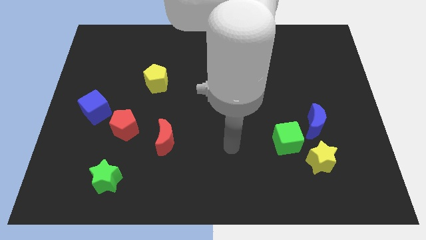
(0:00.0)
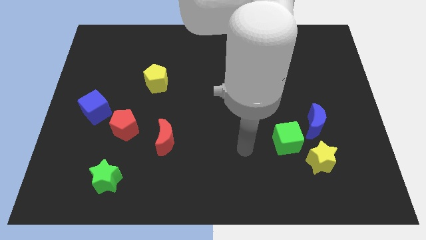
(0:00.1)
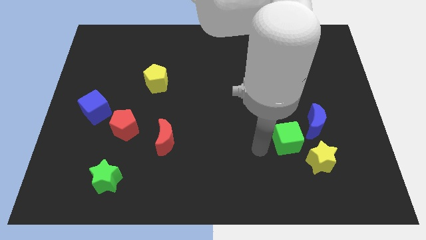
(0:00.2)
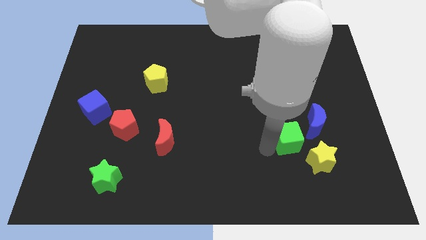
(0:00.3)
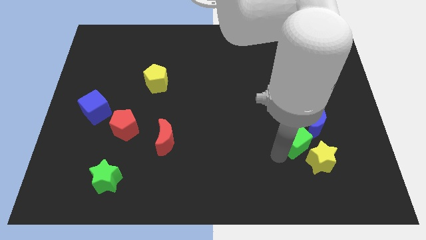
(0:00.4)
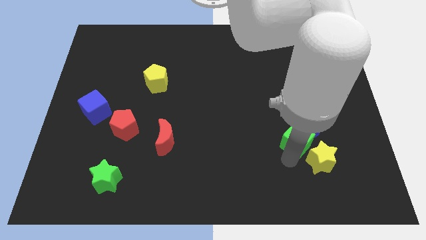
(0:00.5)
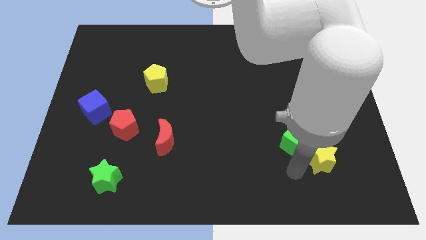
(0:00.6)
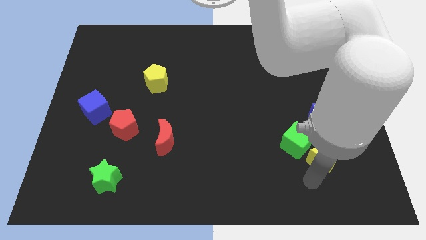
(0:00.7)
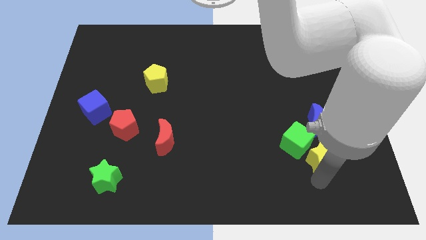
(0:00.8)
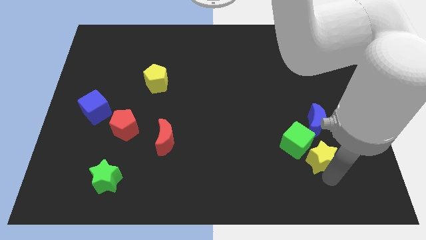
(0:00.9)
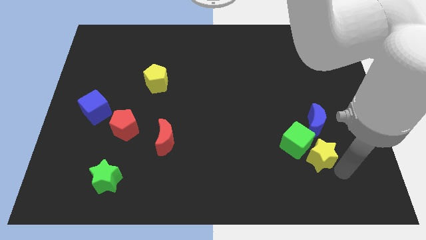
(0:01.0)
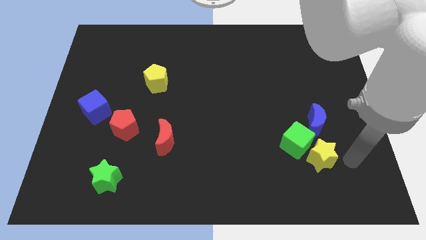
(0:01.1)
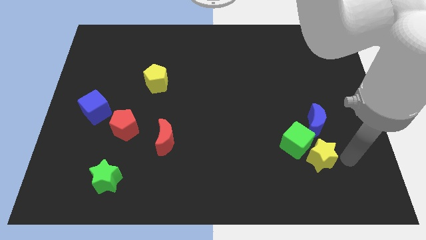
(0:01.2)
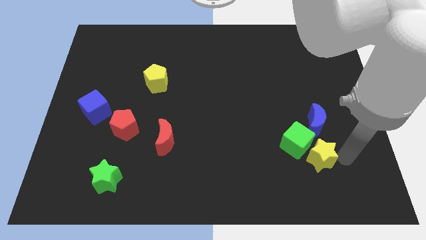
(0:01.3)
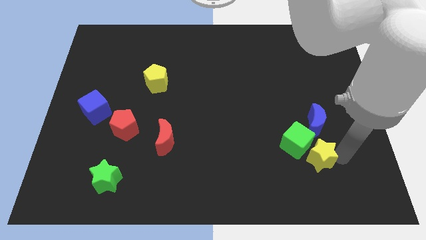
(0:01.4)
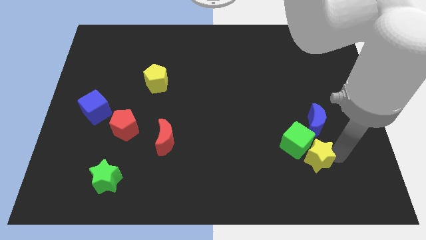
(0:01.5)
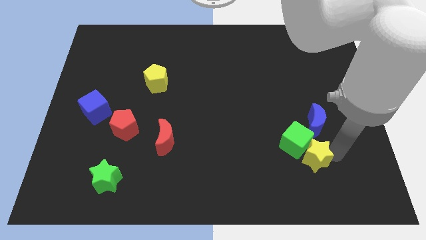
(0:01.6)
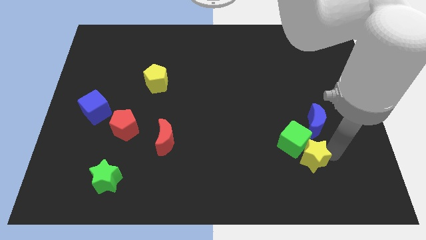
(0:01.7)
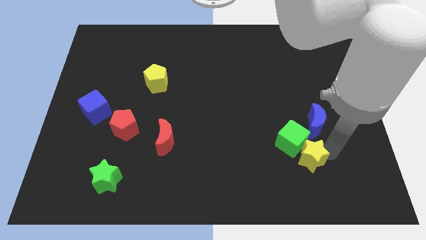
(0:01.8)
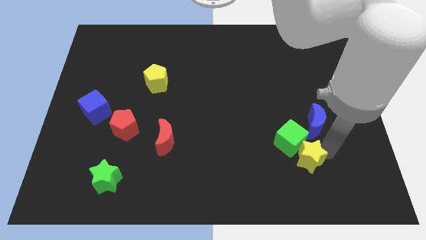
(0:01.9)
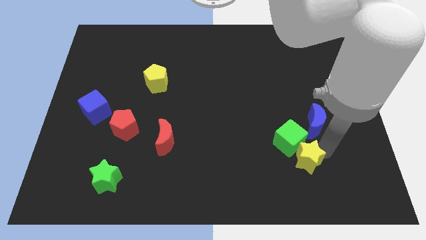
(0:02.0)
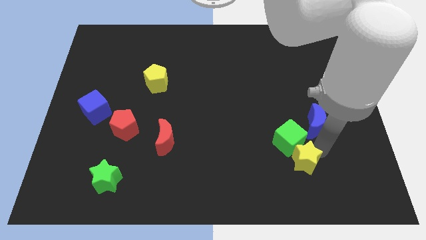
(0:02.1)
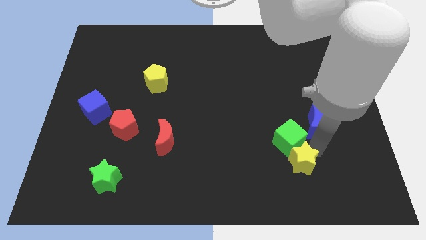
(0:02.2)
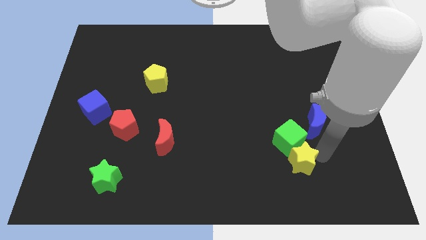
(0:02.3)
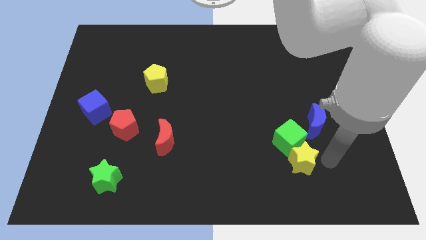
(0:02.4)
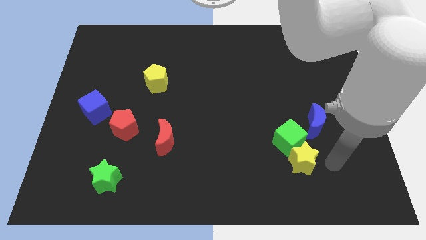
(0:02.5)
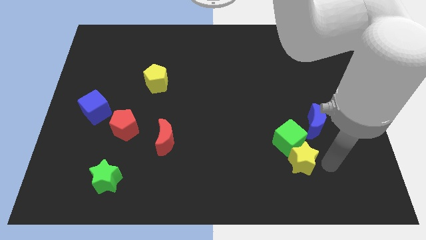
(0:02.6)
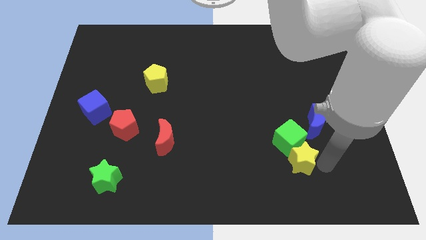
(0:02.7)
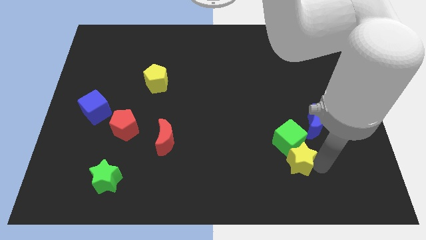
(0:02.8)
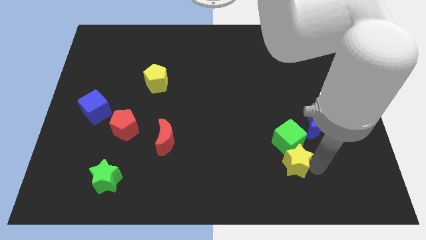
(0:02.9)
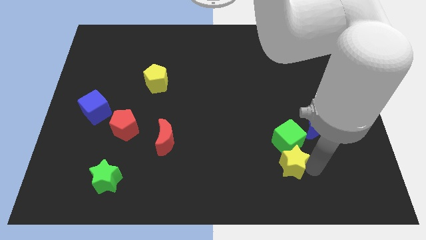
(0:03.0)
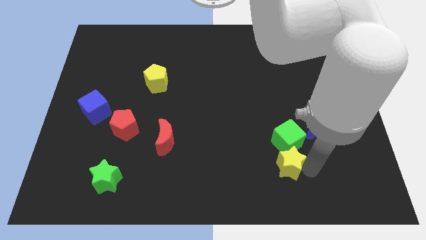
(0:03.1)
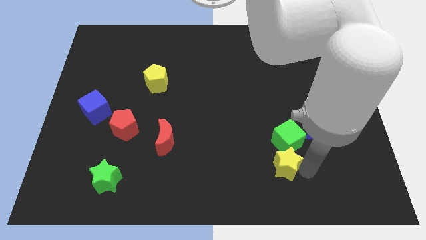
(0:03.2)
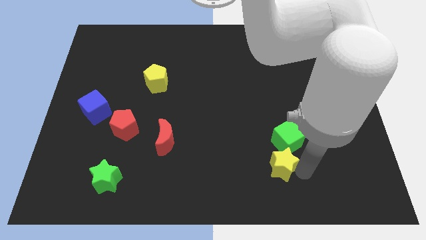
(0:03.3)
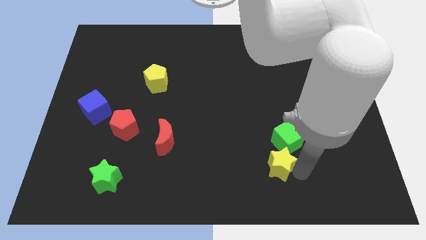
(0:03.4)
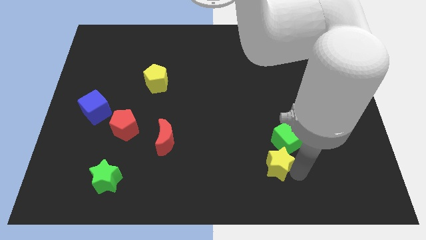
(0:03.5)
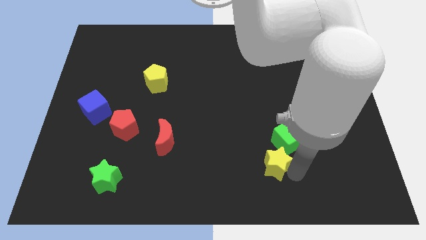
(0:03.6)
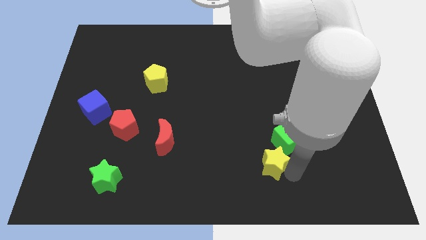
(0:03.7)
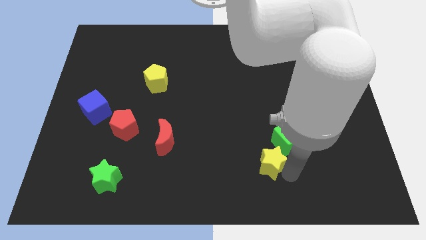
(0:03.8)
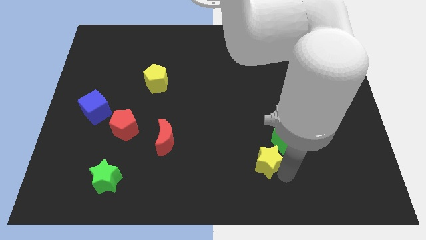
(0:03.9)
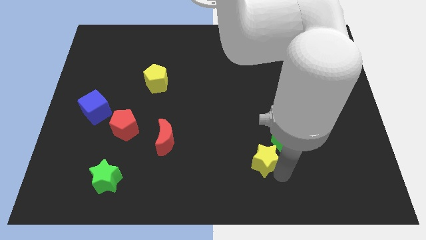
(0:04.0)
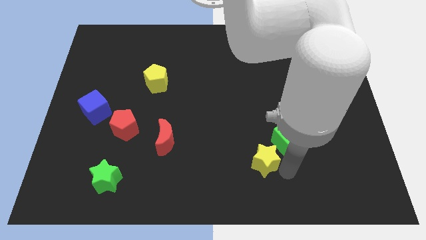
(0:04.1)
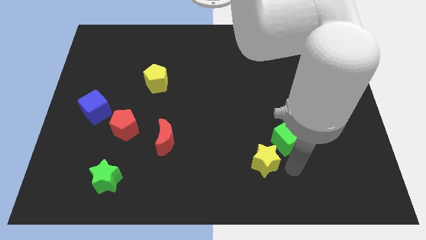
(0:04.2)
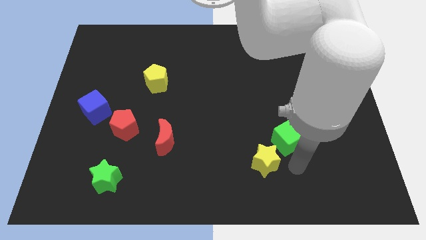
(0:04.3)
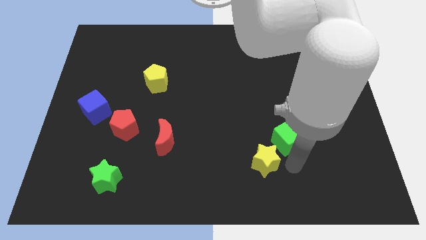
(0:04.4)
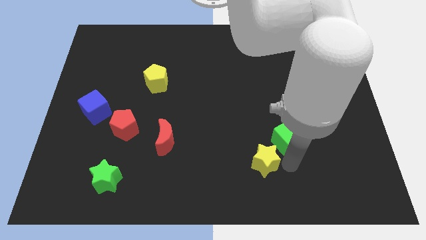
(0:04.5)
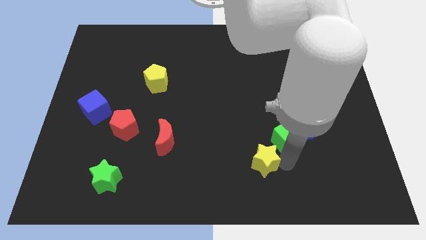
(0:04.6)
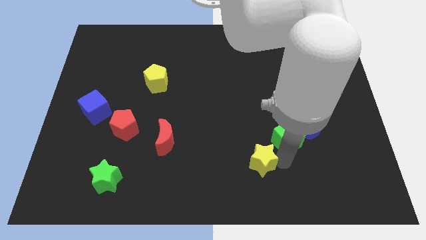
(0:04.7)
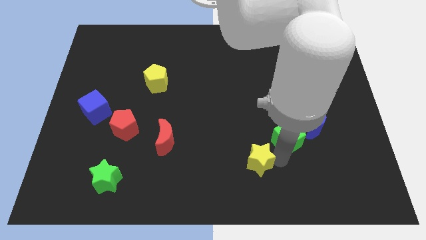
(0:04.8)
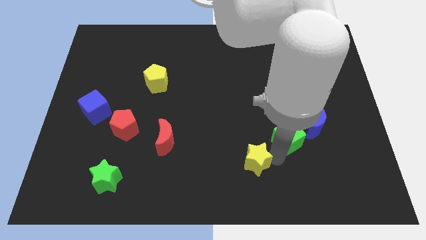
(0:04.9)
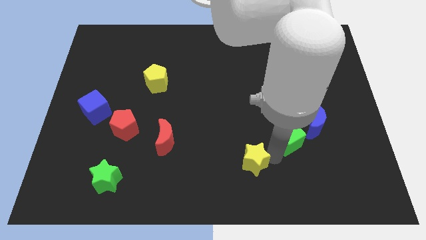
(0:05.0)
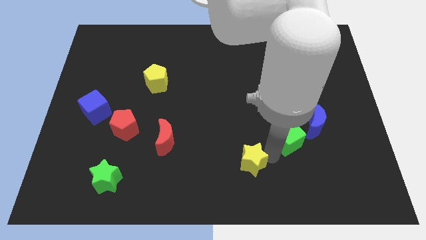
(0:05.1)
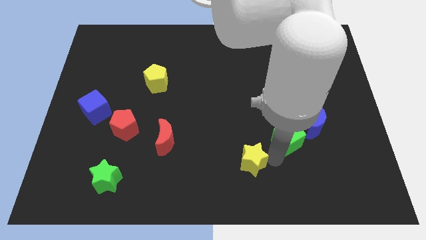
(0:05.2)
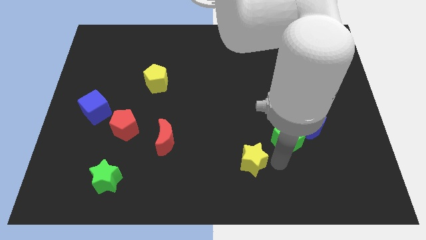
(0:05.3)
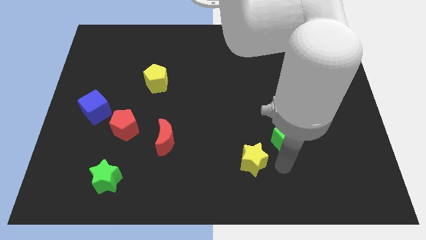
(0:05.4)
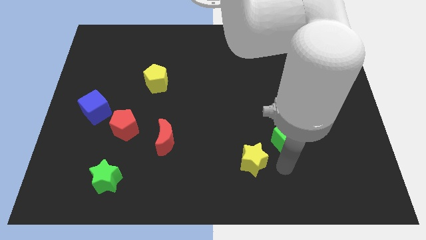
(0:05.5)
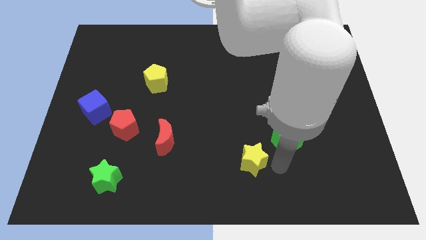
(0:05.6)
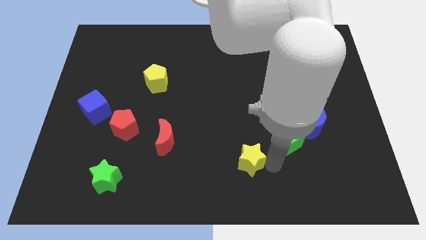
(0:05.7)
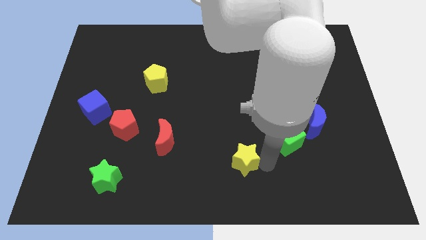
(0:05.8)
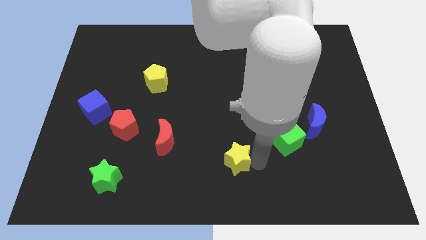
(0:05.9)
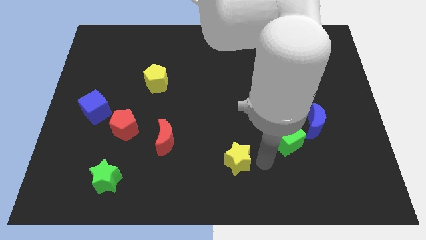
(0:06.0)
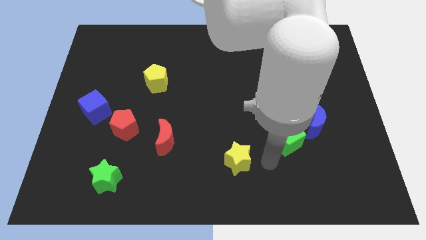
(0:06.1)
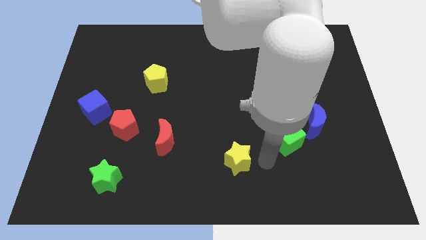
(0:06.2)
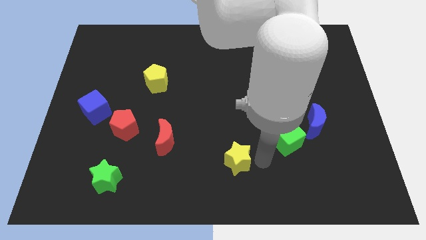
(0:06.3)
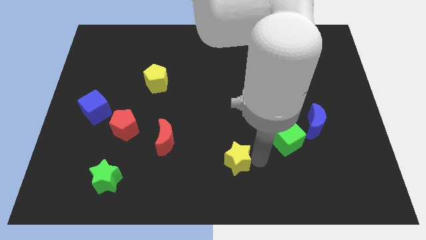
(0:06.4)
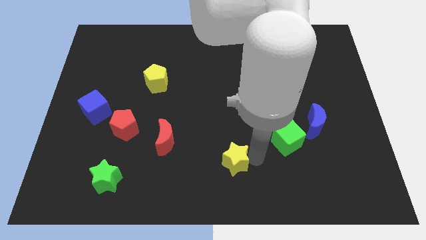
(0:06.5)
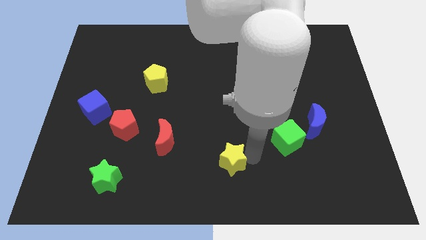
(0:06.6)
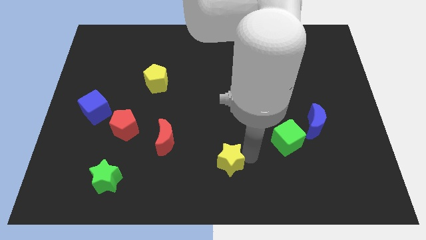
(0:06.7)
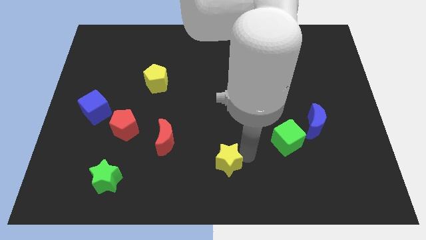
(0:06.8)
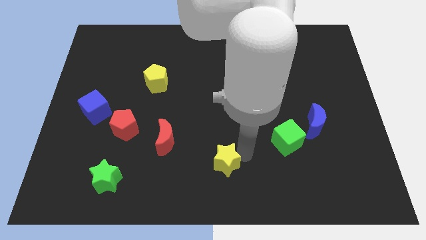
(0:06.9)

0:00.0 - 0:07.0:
slide the yellow star left

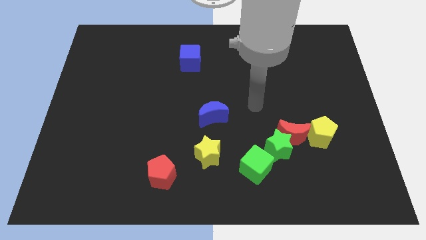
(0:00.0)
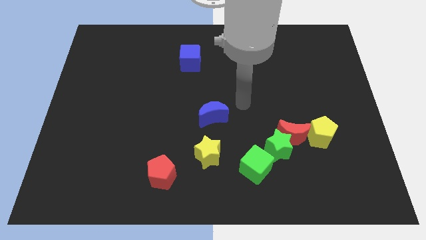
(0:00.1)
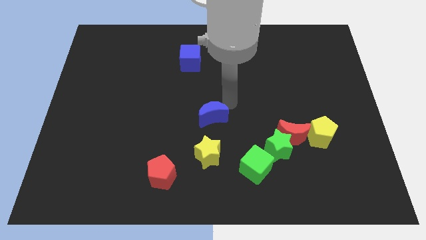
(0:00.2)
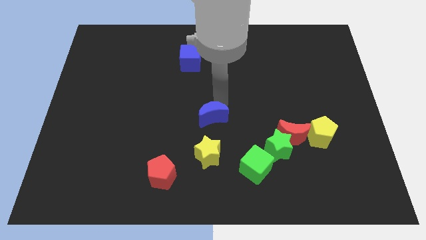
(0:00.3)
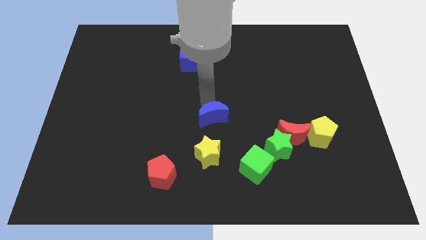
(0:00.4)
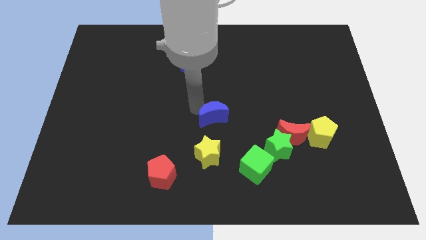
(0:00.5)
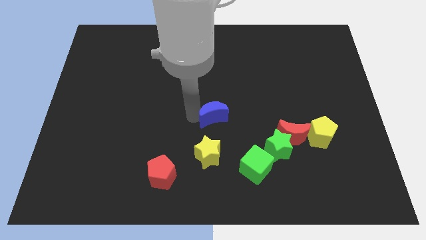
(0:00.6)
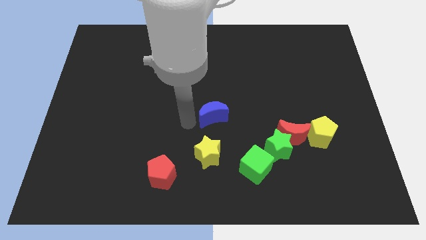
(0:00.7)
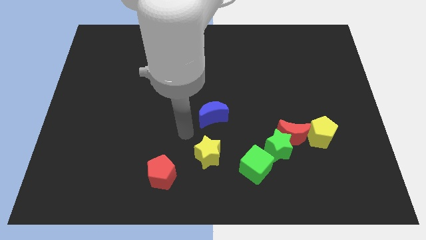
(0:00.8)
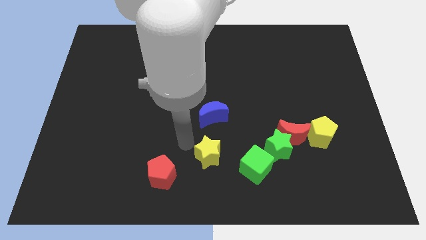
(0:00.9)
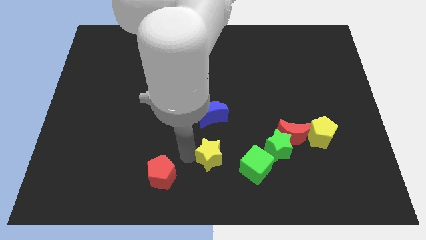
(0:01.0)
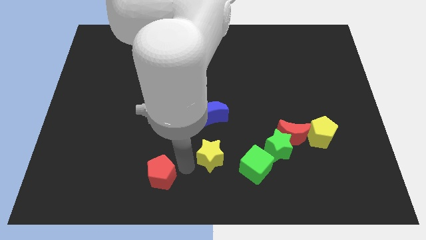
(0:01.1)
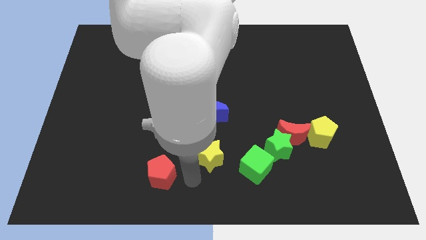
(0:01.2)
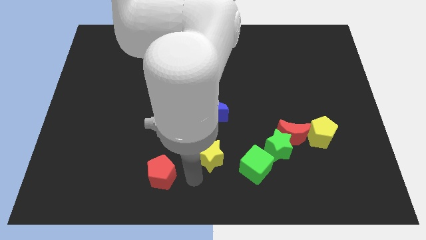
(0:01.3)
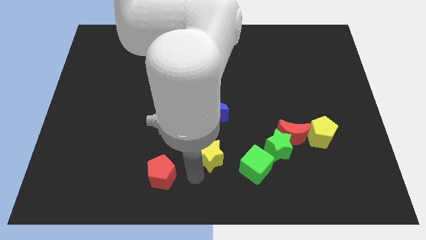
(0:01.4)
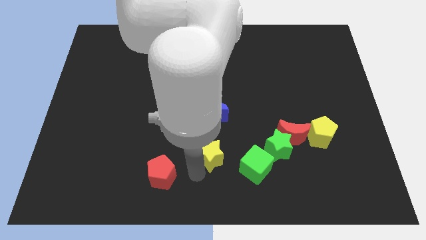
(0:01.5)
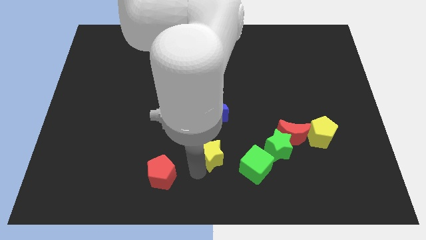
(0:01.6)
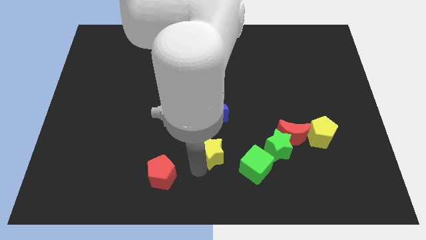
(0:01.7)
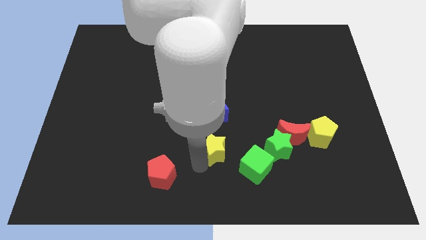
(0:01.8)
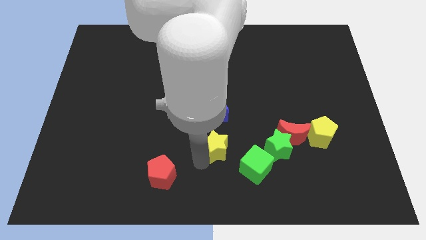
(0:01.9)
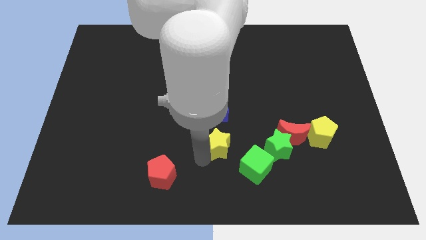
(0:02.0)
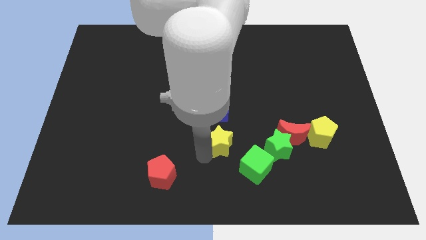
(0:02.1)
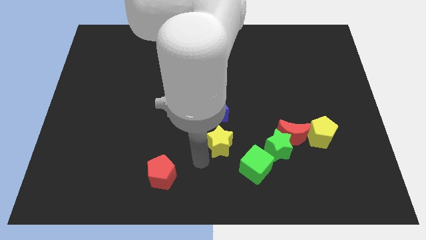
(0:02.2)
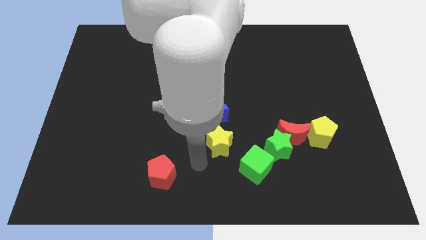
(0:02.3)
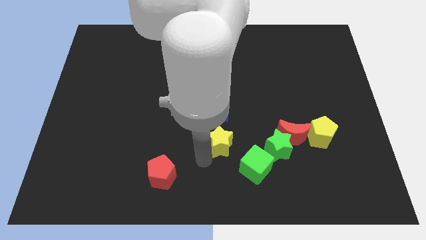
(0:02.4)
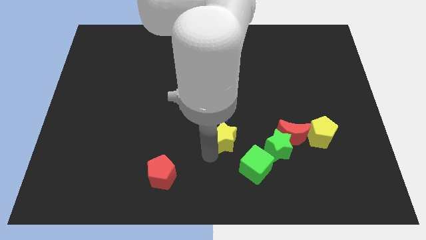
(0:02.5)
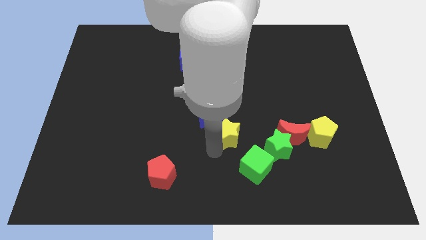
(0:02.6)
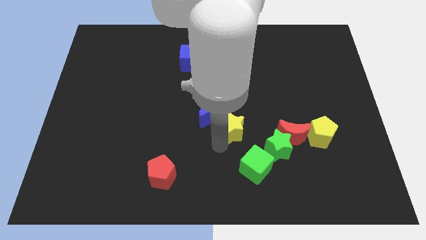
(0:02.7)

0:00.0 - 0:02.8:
push the yellow star upwards and then right slightly
